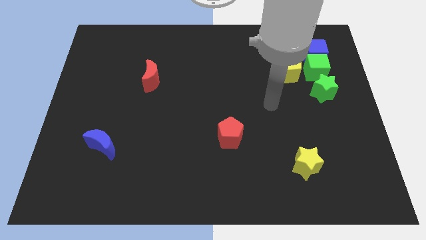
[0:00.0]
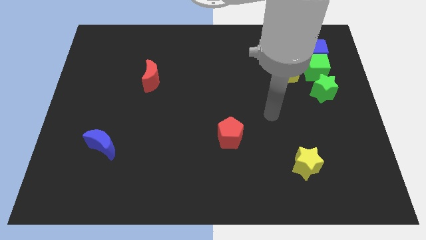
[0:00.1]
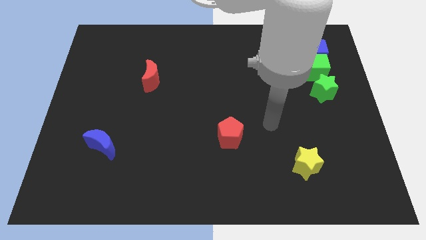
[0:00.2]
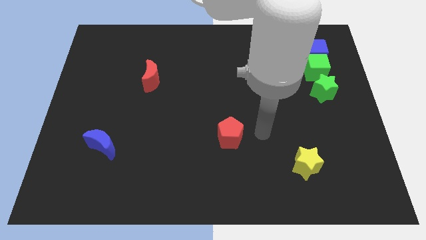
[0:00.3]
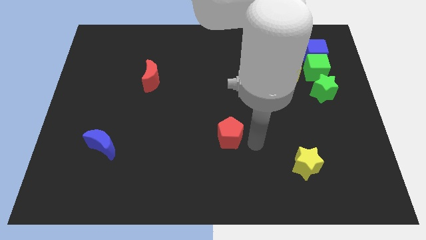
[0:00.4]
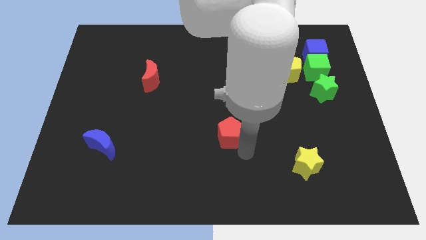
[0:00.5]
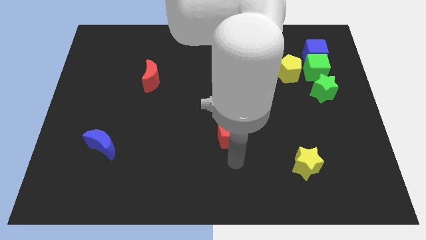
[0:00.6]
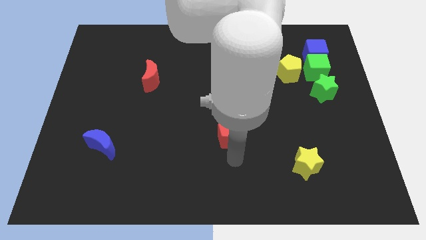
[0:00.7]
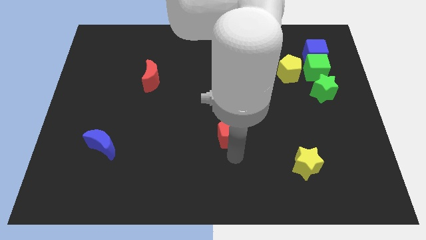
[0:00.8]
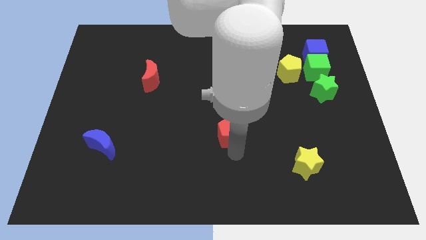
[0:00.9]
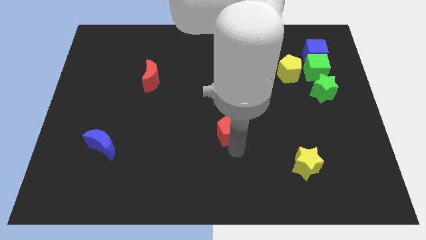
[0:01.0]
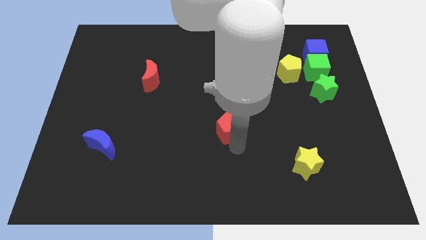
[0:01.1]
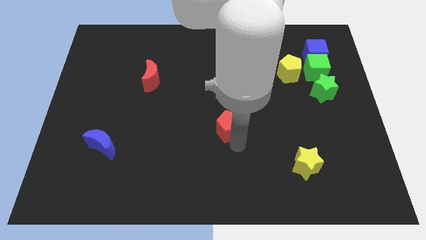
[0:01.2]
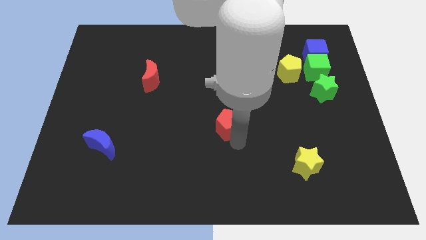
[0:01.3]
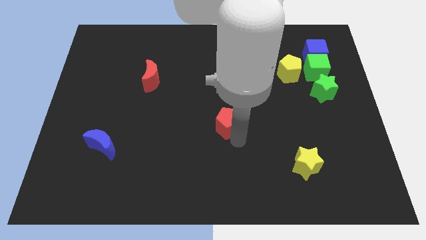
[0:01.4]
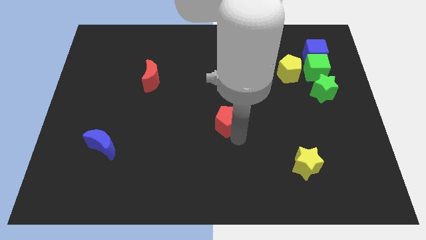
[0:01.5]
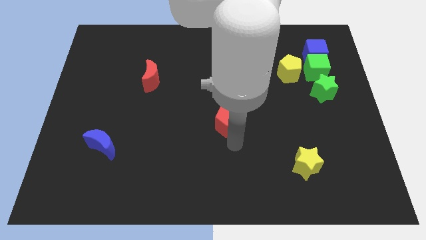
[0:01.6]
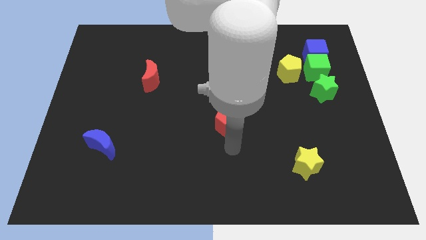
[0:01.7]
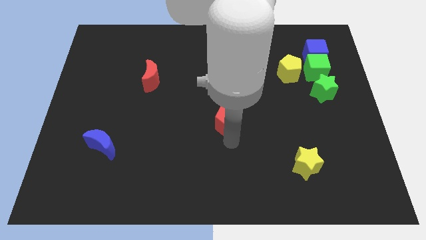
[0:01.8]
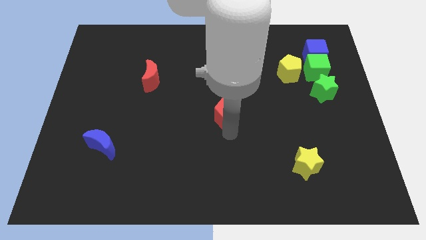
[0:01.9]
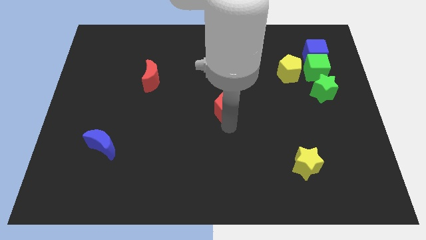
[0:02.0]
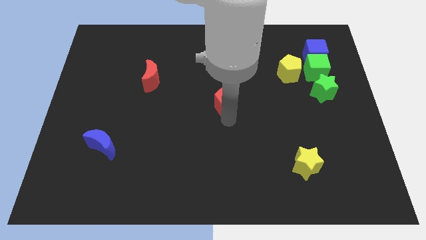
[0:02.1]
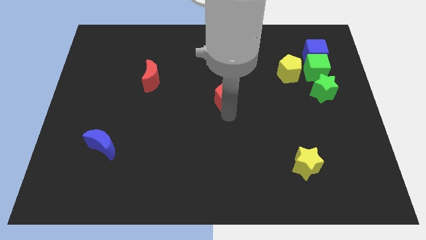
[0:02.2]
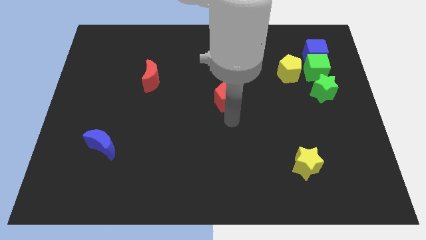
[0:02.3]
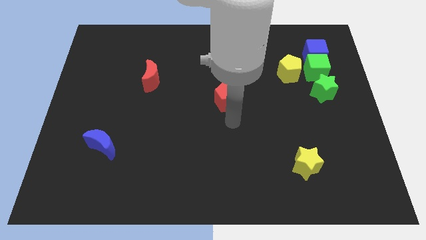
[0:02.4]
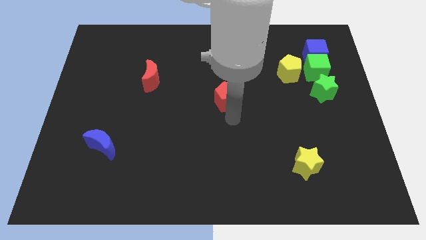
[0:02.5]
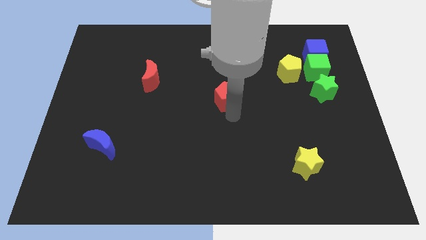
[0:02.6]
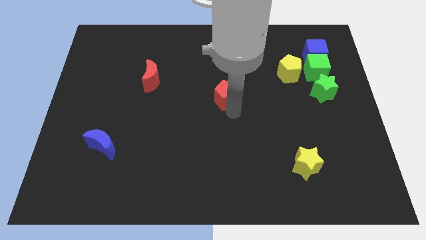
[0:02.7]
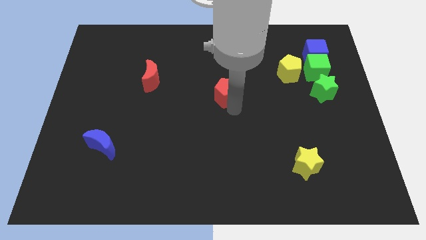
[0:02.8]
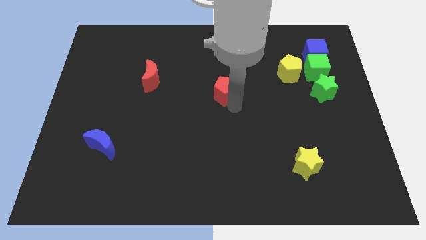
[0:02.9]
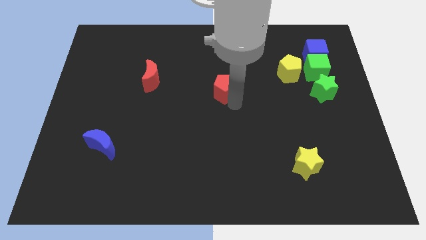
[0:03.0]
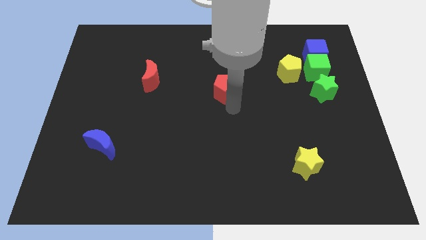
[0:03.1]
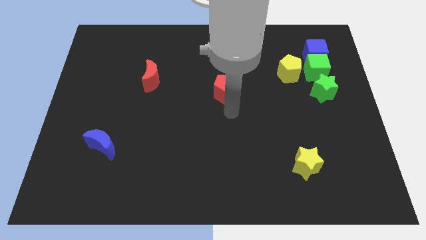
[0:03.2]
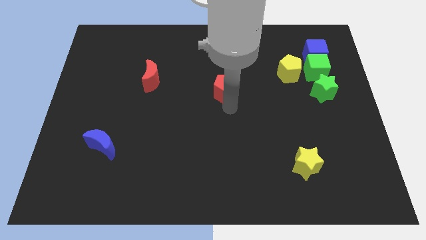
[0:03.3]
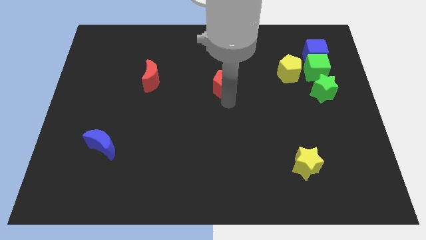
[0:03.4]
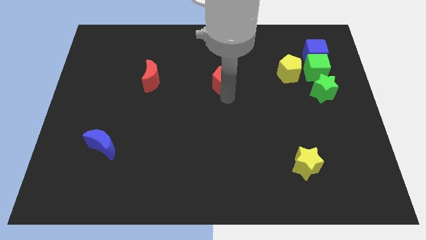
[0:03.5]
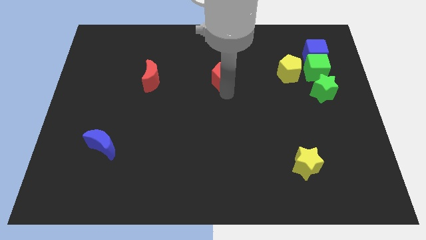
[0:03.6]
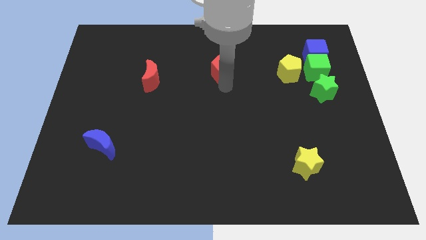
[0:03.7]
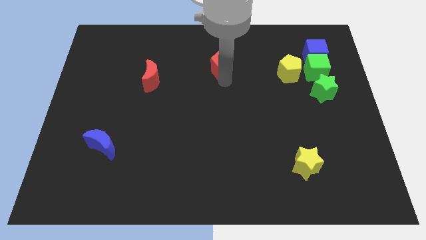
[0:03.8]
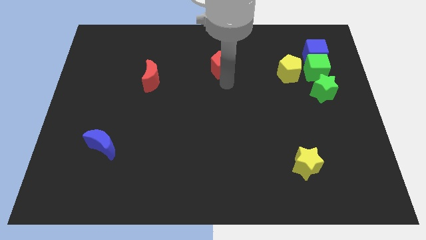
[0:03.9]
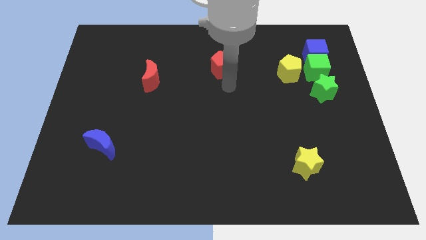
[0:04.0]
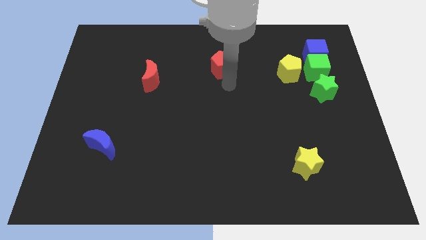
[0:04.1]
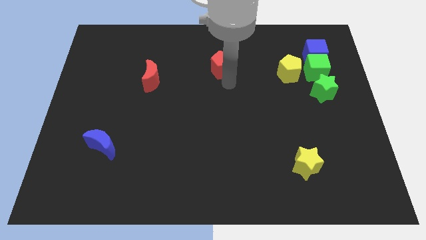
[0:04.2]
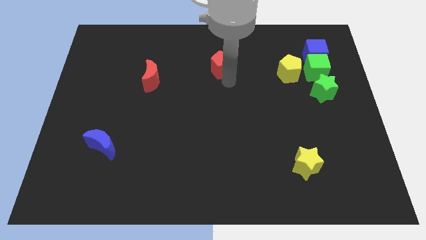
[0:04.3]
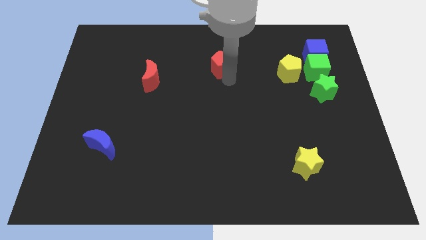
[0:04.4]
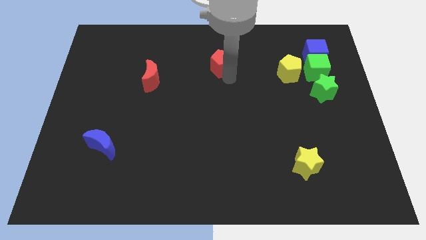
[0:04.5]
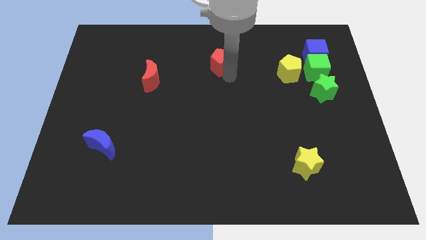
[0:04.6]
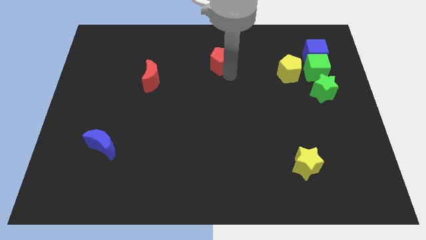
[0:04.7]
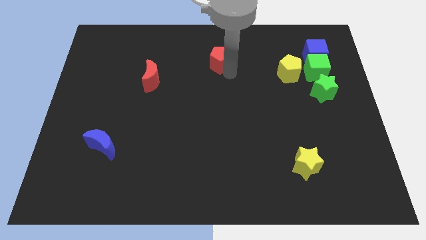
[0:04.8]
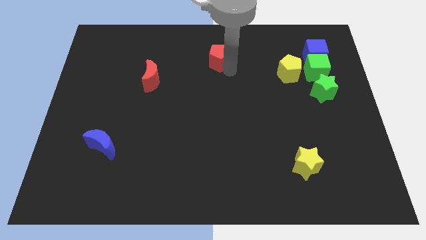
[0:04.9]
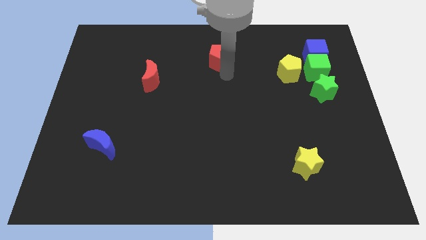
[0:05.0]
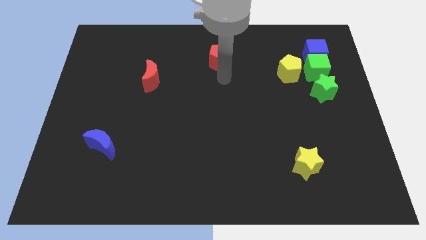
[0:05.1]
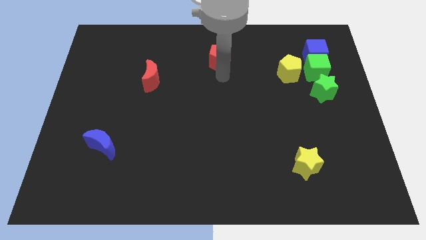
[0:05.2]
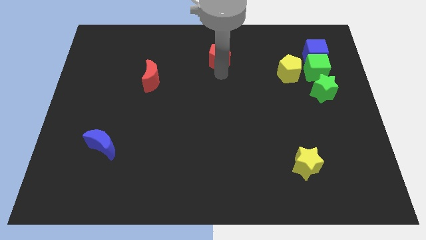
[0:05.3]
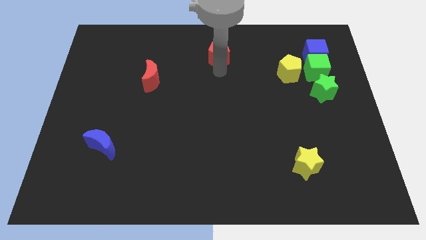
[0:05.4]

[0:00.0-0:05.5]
slide the red pentagon to the top side

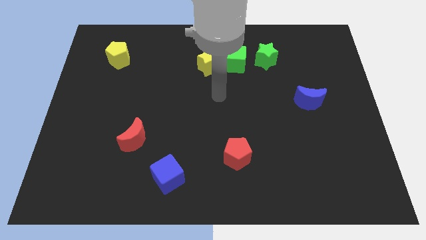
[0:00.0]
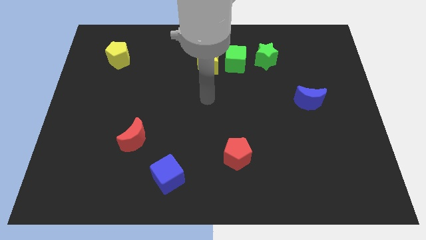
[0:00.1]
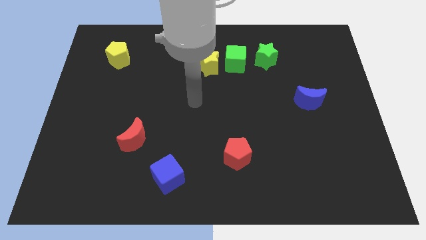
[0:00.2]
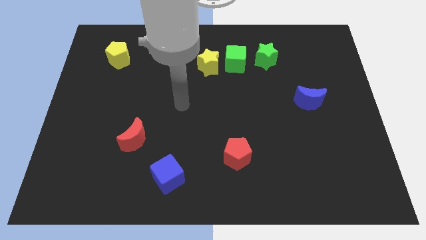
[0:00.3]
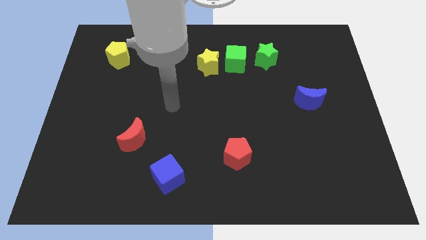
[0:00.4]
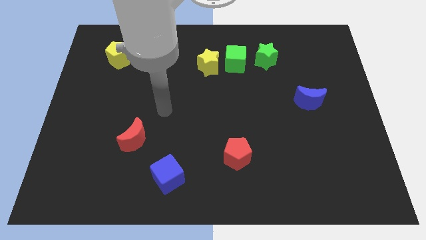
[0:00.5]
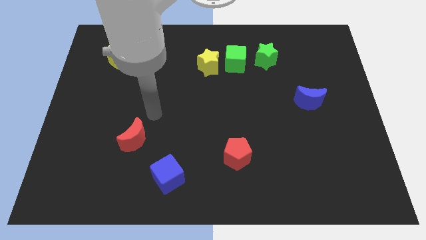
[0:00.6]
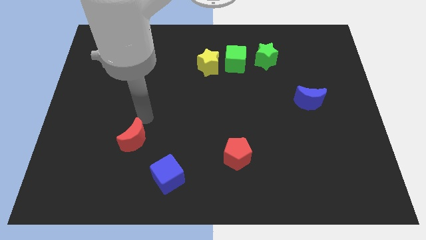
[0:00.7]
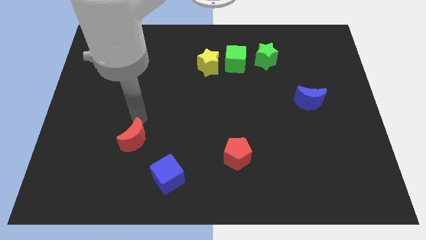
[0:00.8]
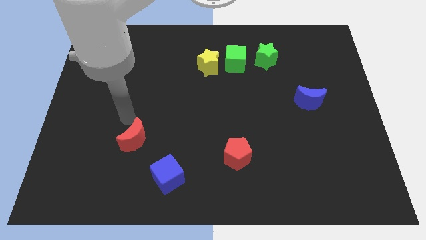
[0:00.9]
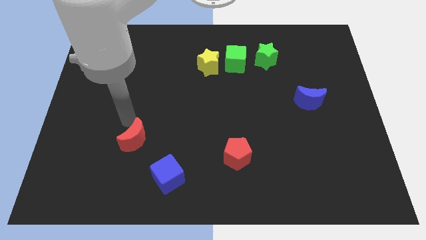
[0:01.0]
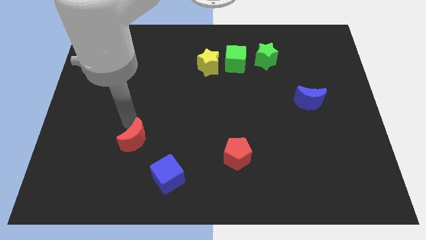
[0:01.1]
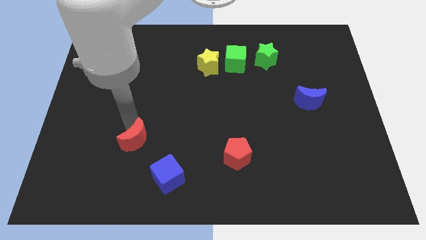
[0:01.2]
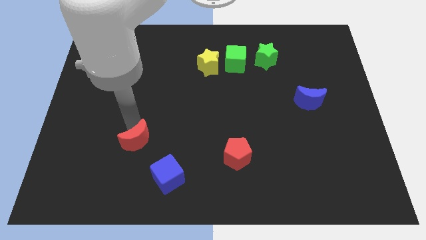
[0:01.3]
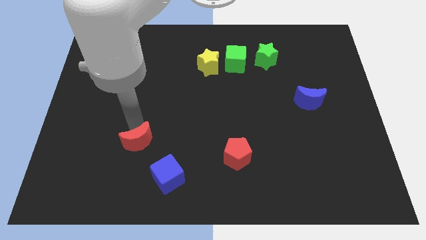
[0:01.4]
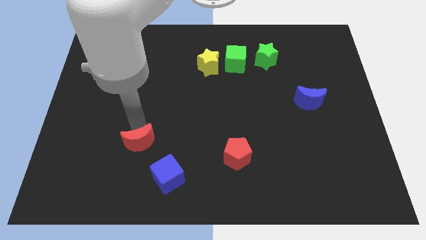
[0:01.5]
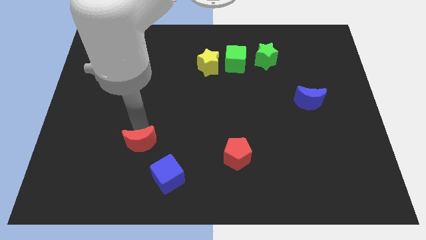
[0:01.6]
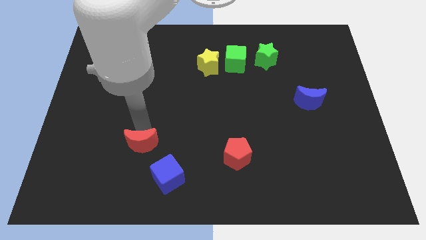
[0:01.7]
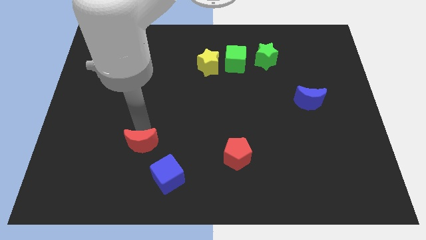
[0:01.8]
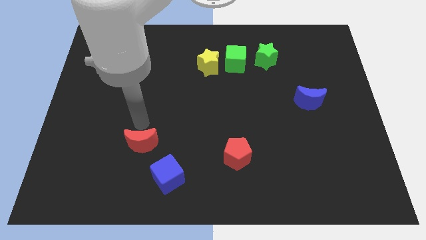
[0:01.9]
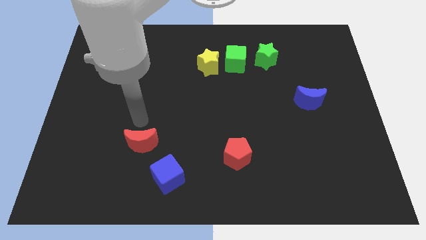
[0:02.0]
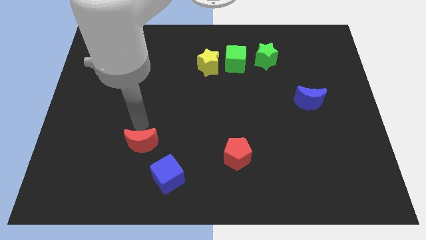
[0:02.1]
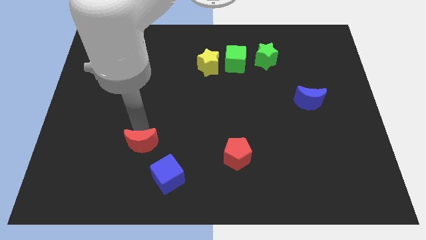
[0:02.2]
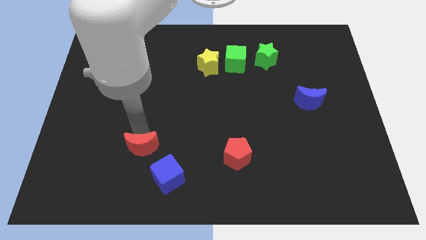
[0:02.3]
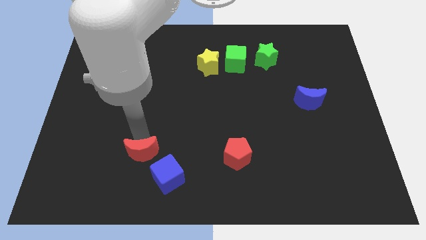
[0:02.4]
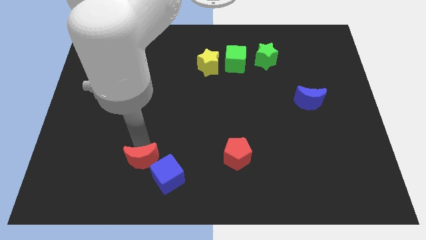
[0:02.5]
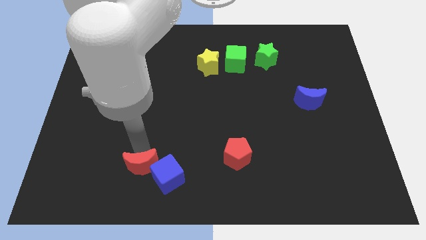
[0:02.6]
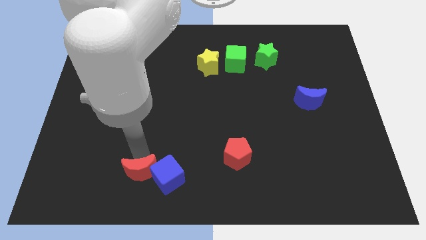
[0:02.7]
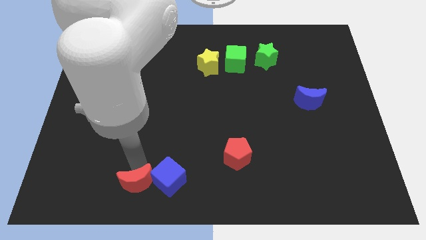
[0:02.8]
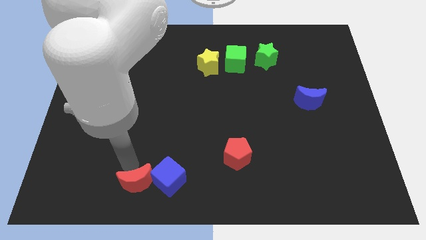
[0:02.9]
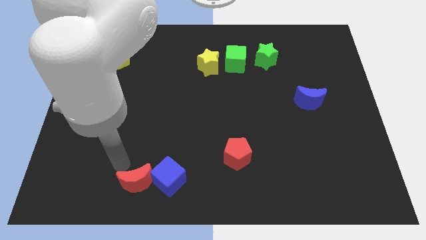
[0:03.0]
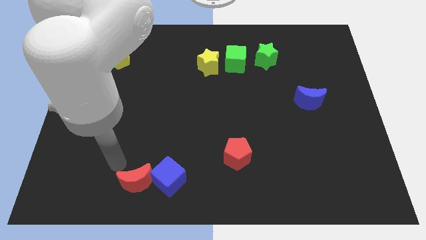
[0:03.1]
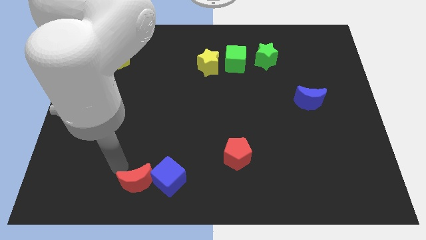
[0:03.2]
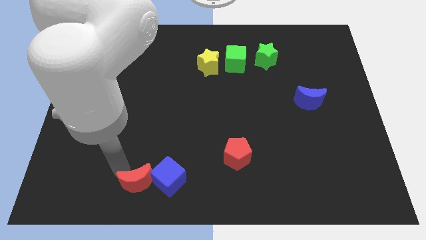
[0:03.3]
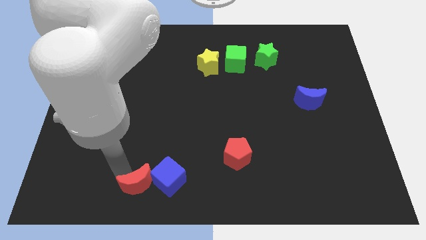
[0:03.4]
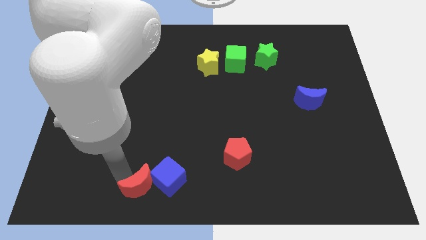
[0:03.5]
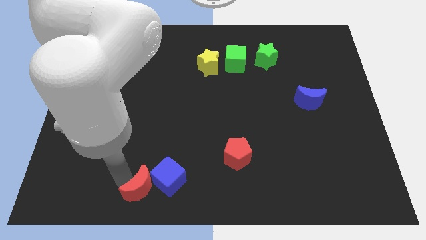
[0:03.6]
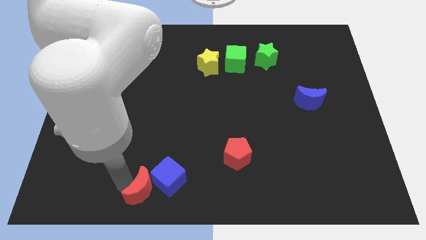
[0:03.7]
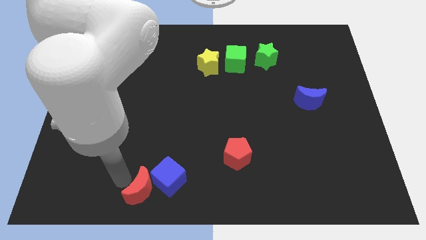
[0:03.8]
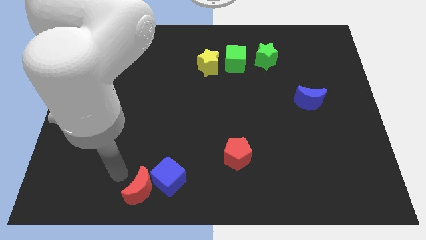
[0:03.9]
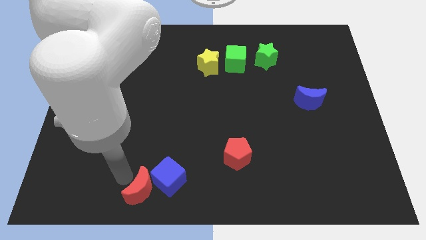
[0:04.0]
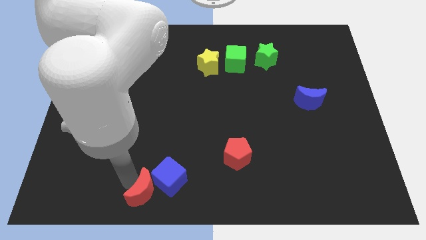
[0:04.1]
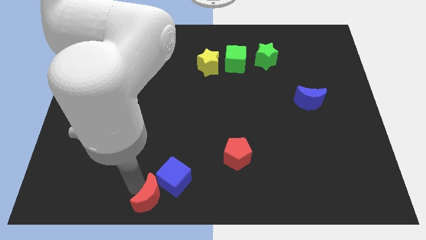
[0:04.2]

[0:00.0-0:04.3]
put the red moon to the bottom side
